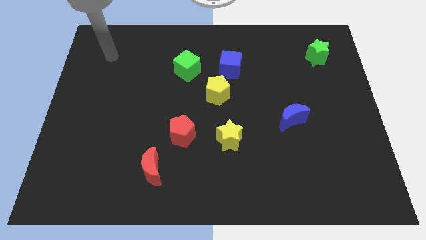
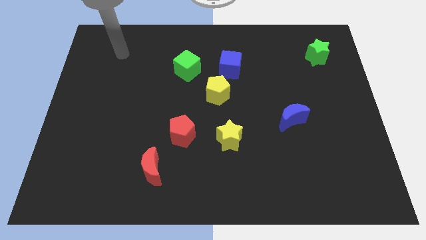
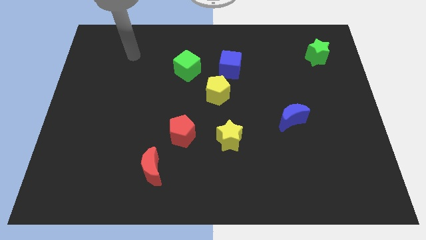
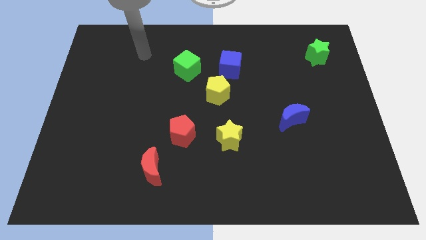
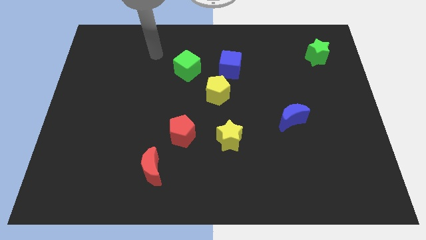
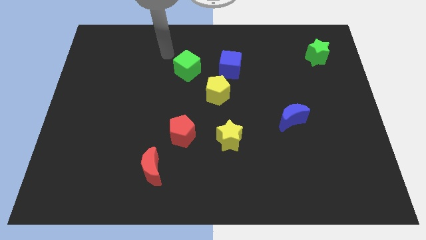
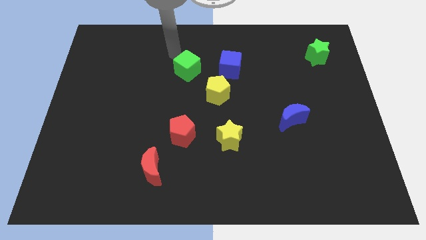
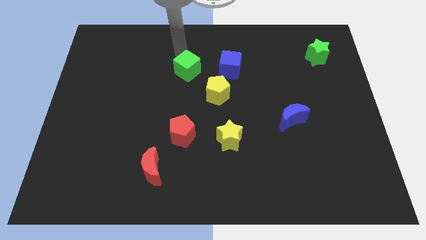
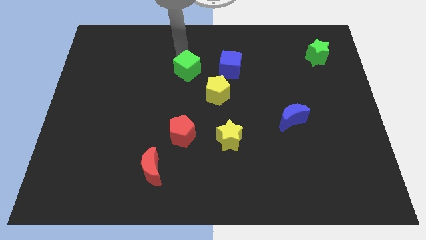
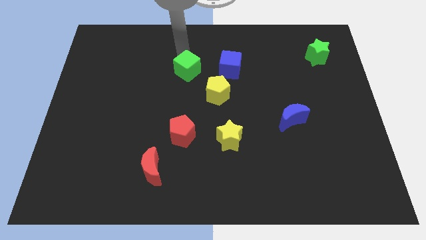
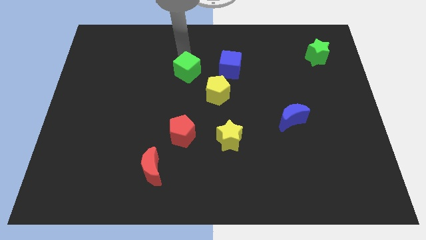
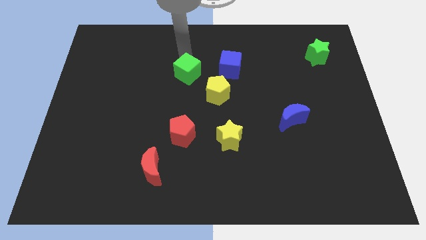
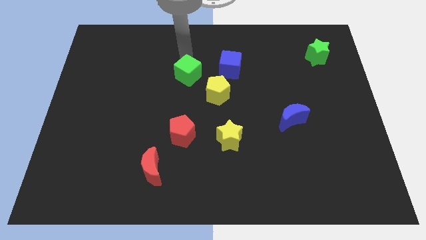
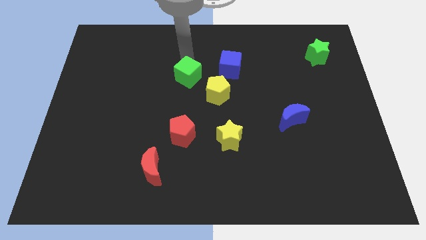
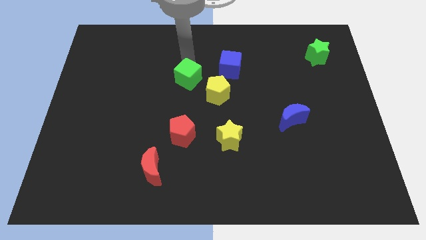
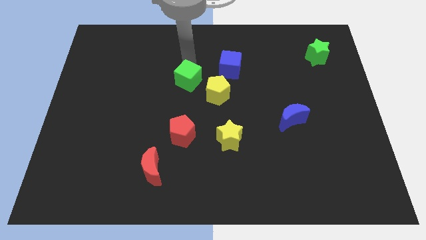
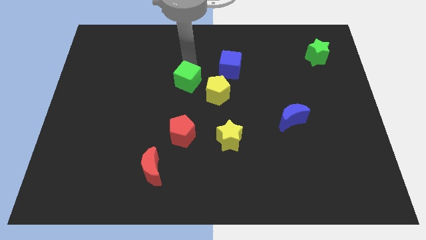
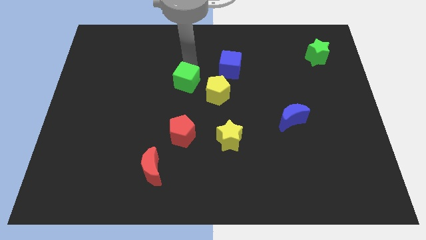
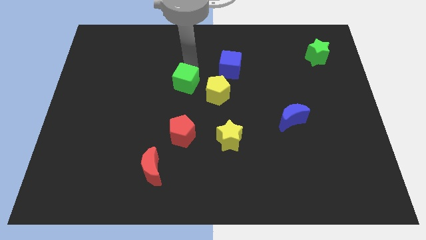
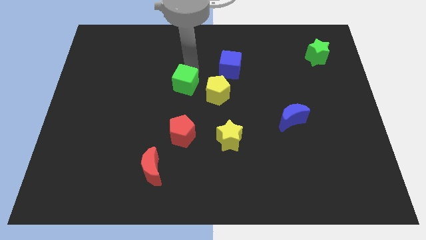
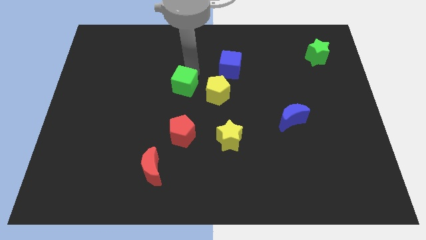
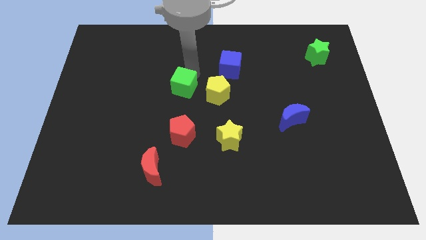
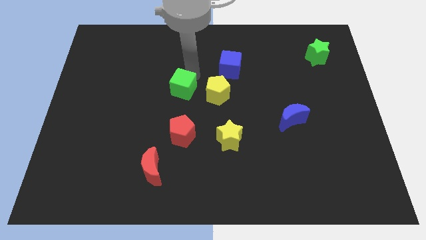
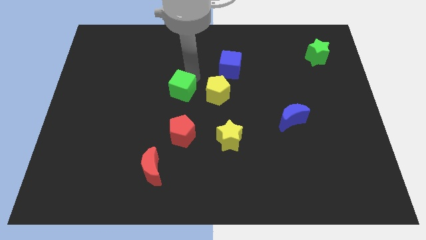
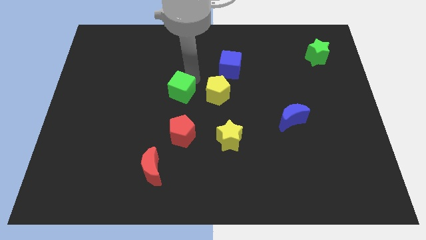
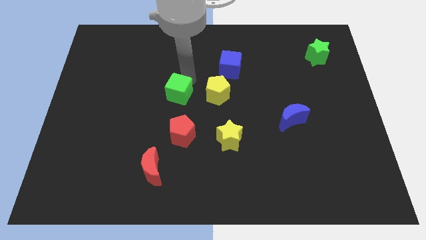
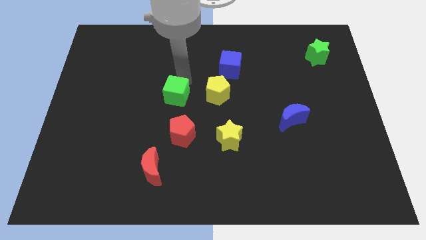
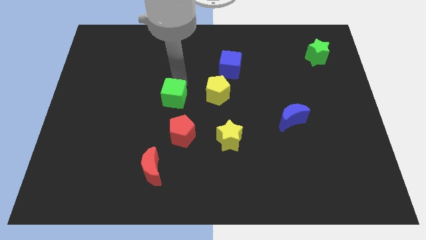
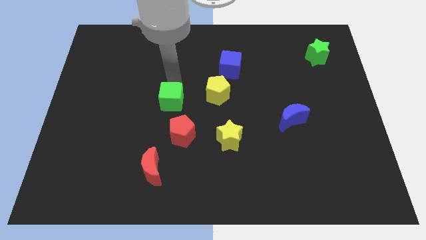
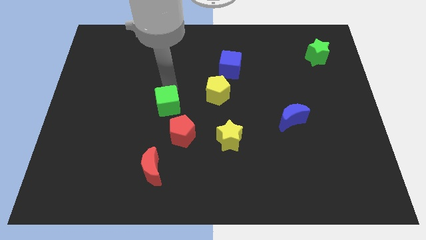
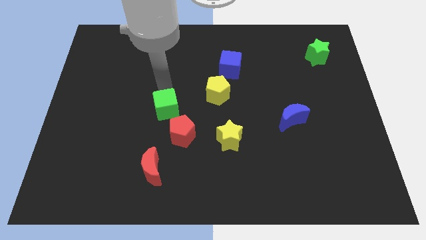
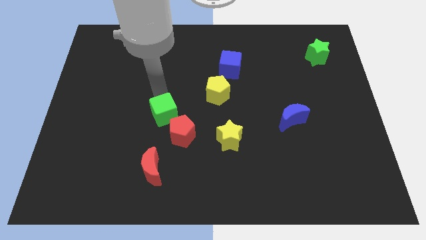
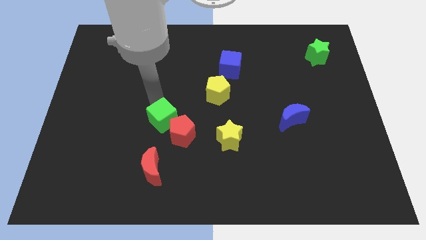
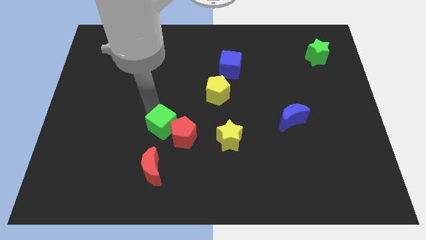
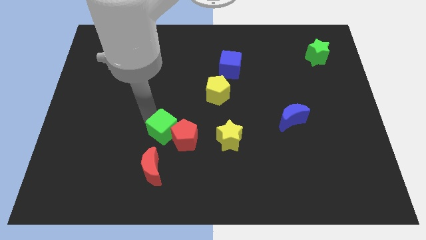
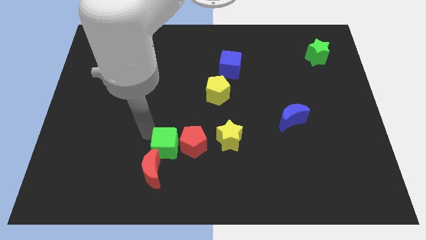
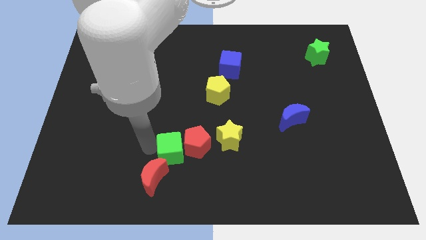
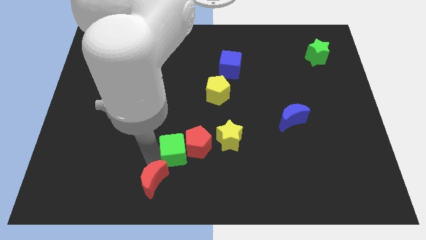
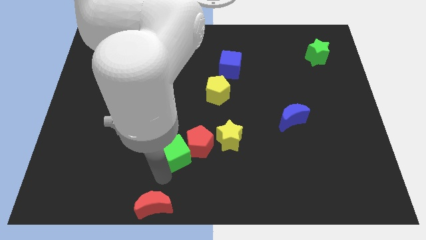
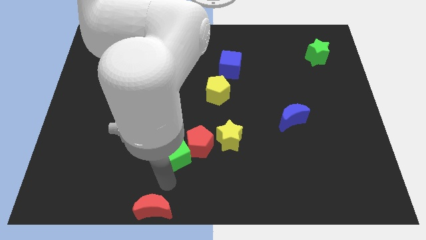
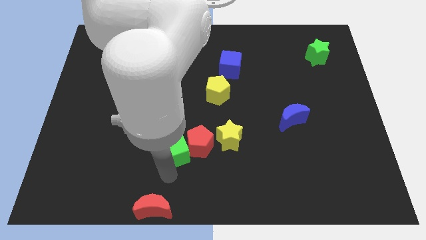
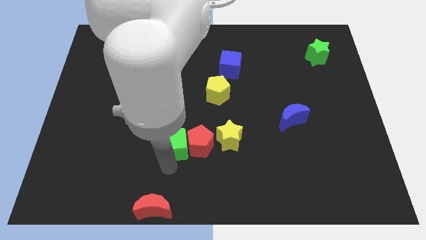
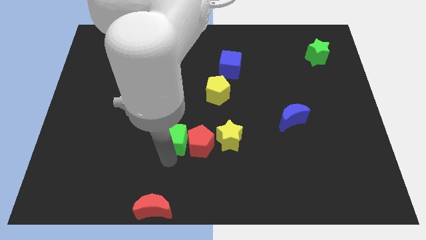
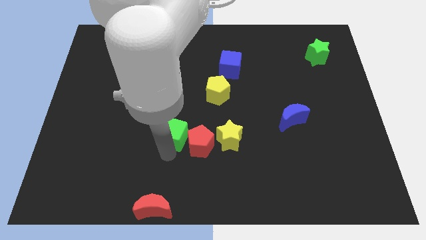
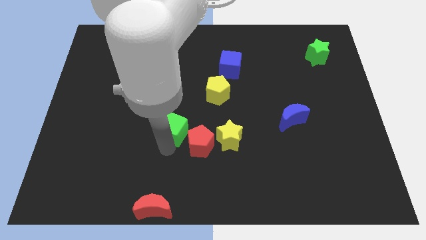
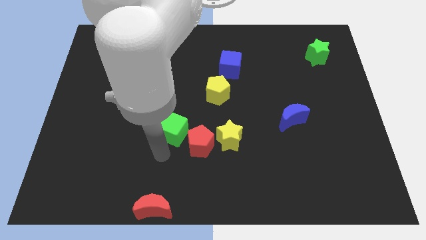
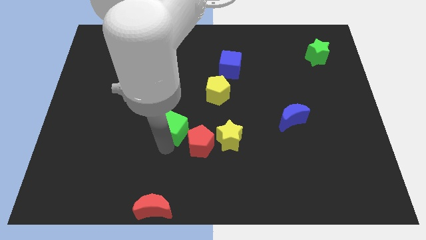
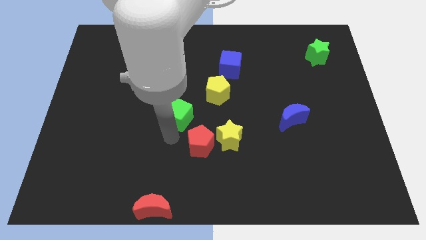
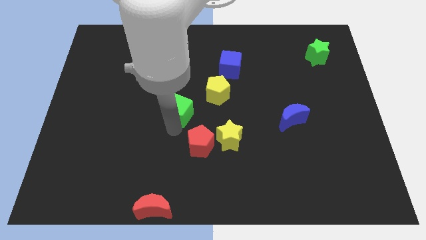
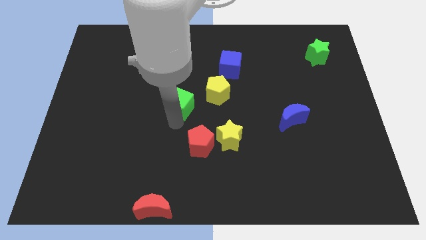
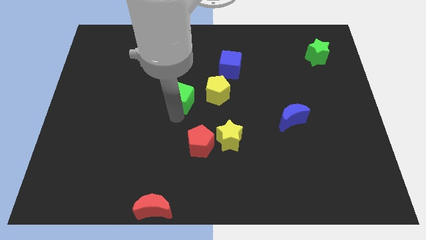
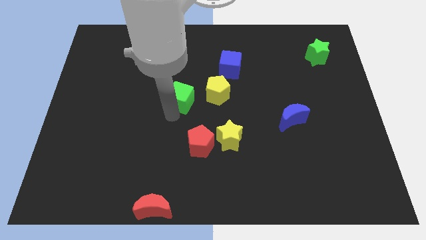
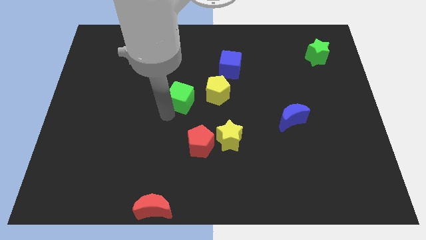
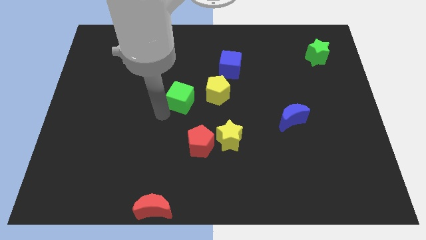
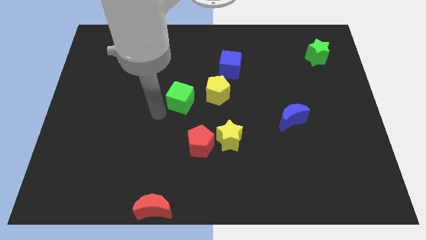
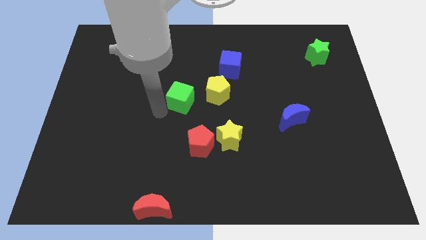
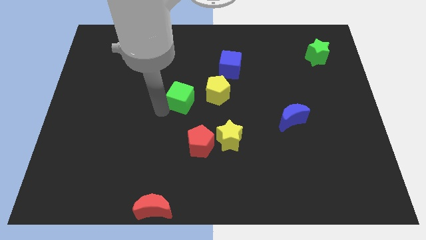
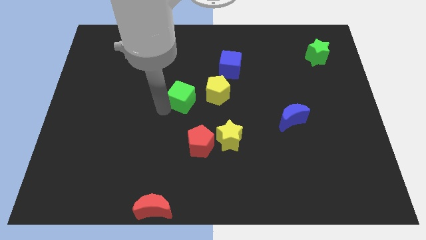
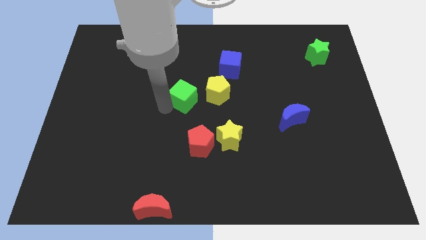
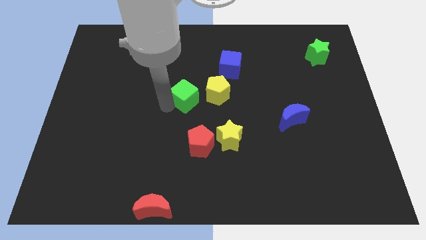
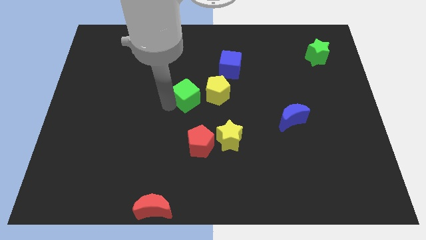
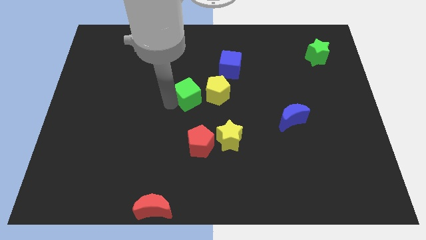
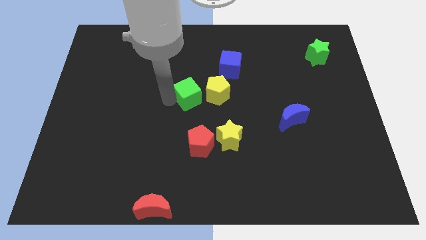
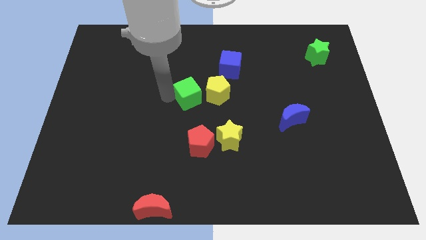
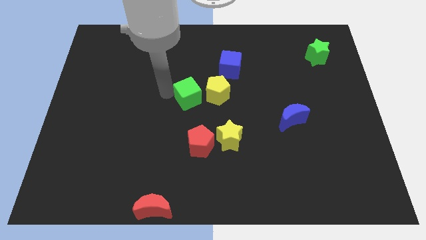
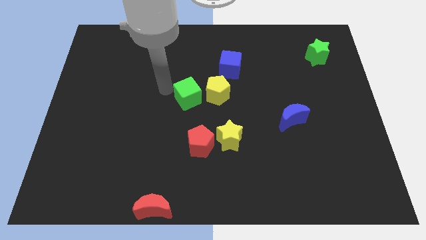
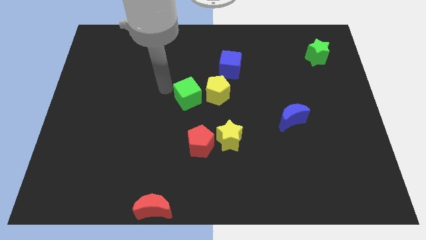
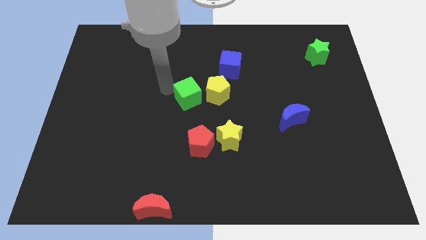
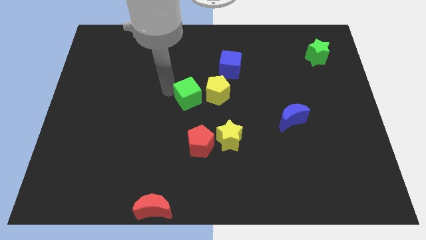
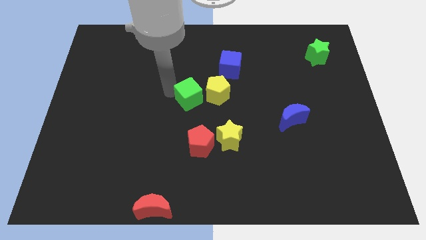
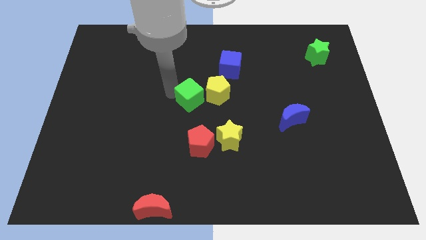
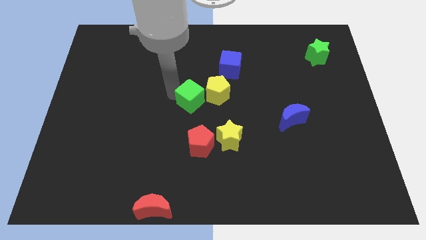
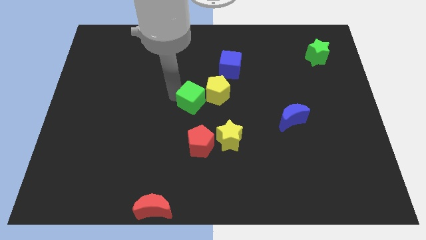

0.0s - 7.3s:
push the green cube diagonally down and to the right a little

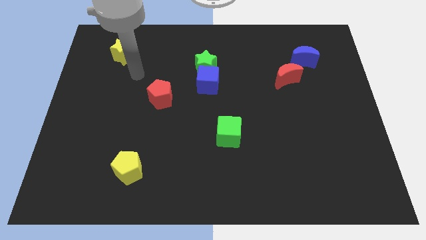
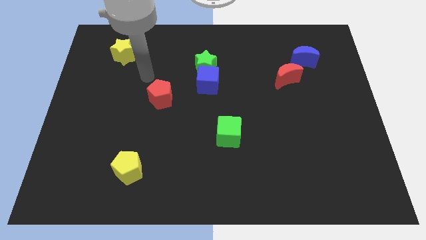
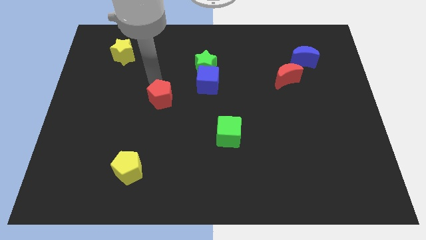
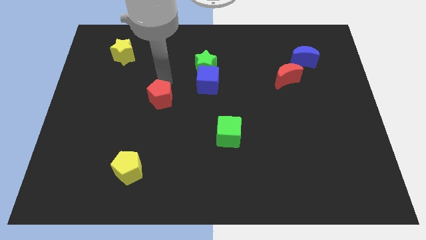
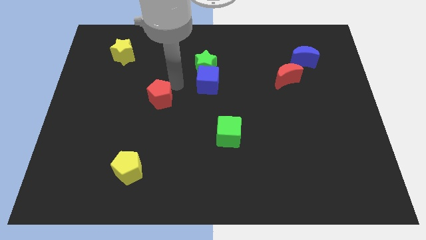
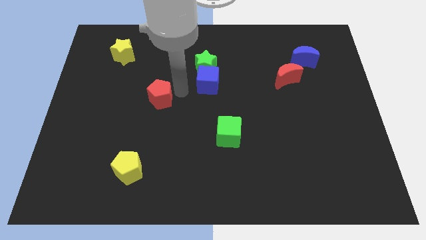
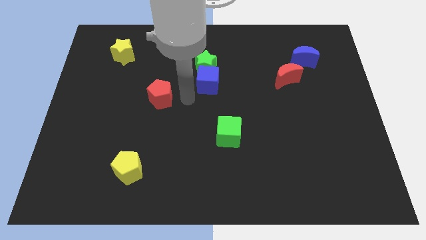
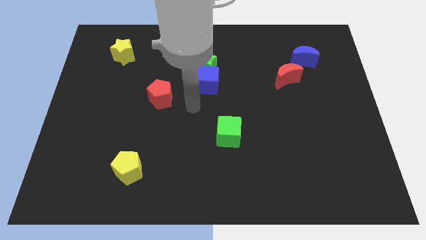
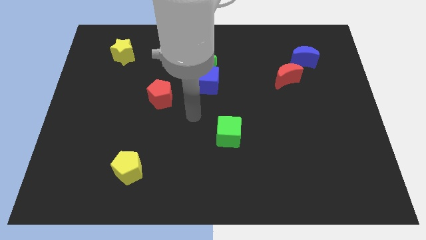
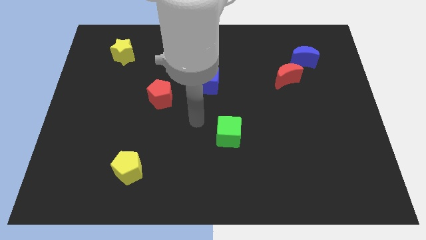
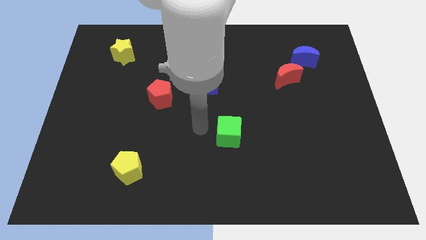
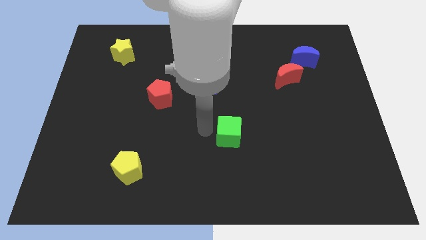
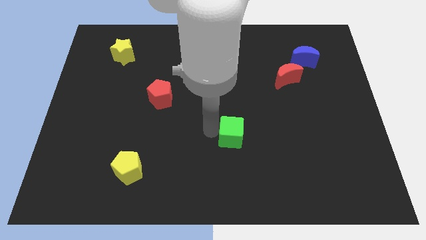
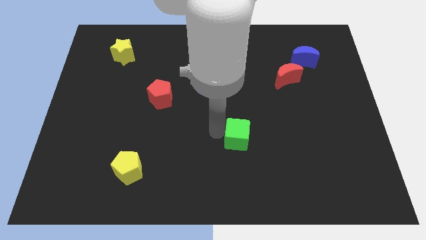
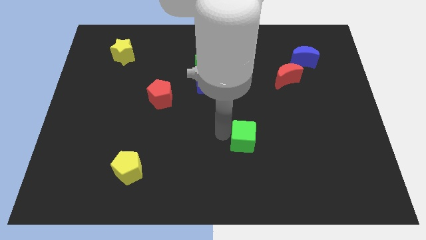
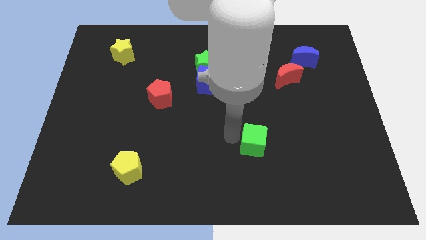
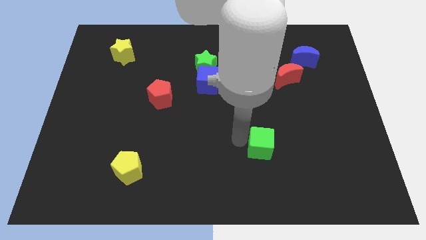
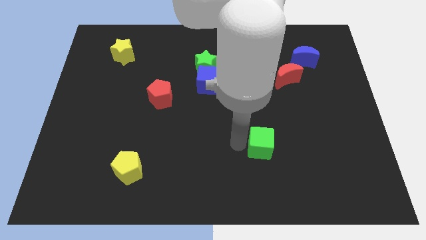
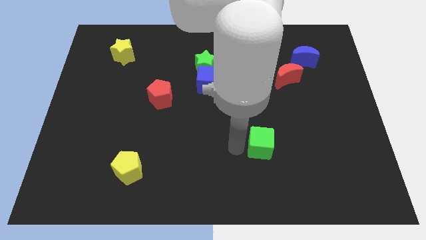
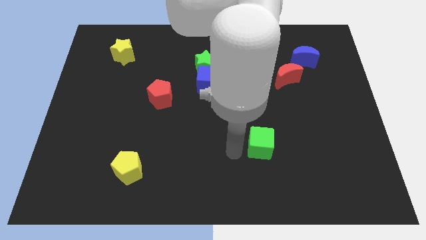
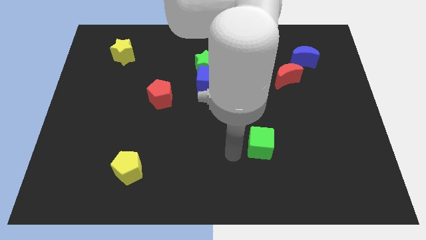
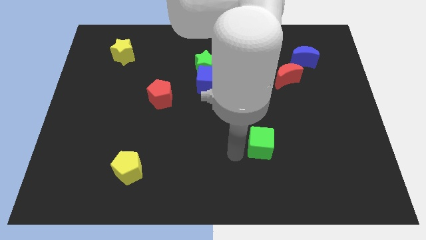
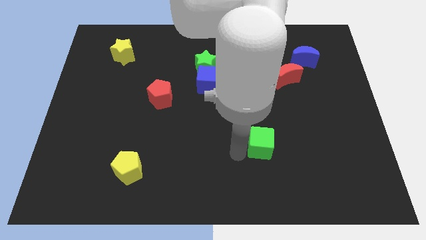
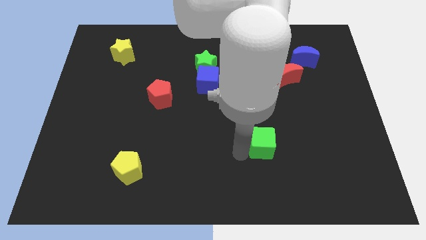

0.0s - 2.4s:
slightly push the green cube right
